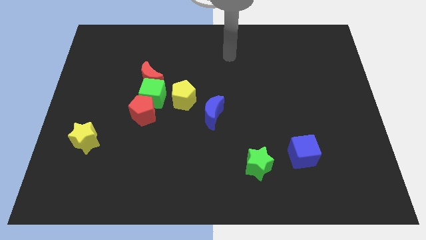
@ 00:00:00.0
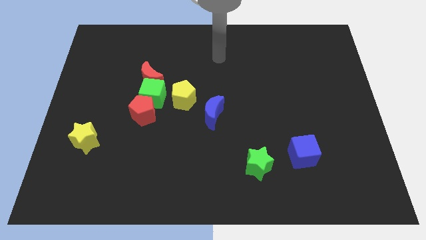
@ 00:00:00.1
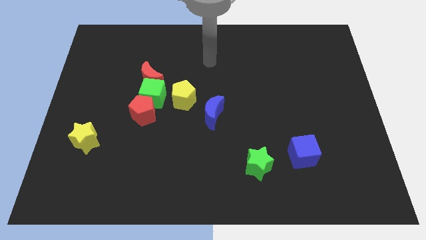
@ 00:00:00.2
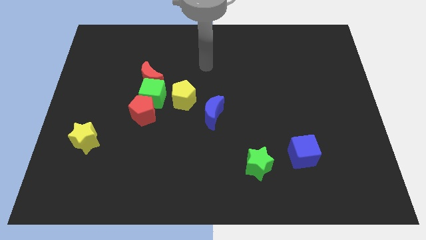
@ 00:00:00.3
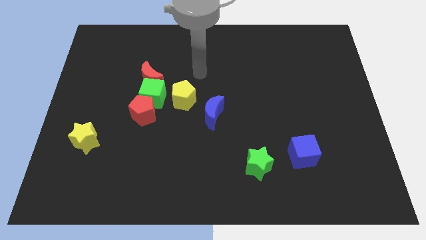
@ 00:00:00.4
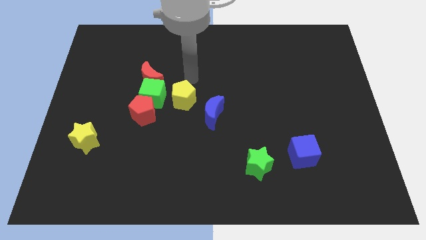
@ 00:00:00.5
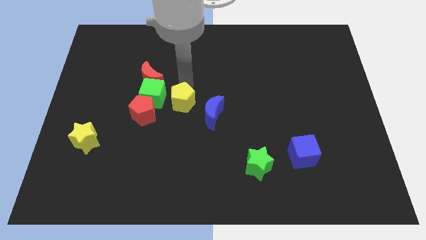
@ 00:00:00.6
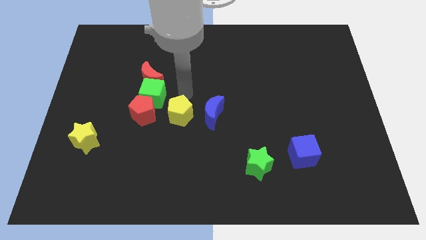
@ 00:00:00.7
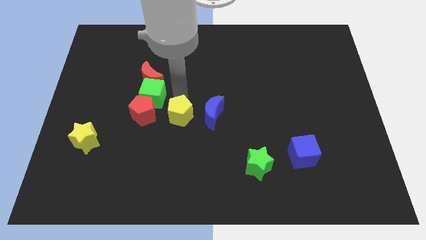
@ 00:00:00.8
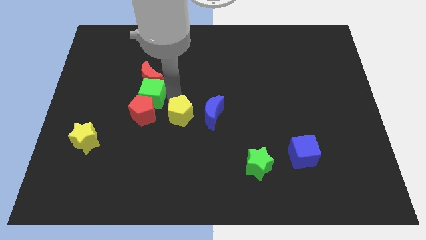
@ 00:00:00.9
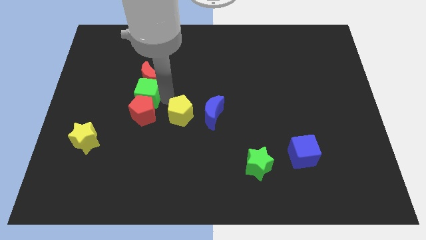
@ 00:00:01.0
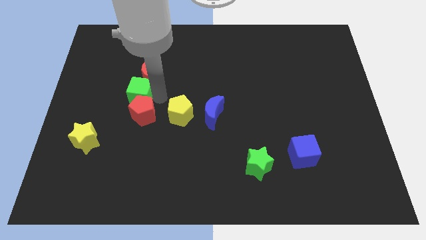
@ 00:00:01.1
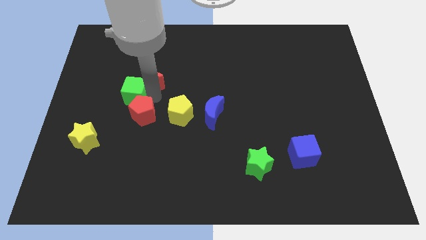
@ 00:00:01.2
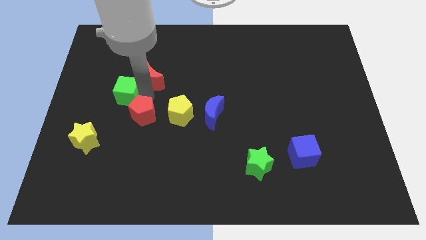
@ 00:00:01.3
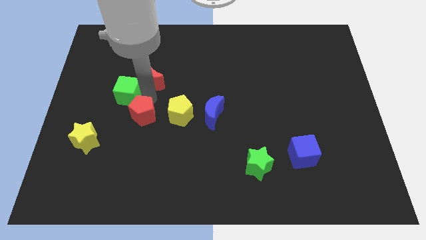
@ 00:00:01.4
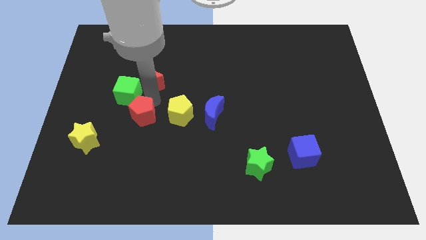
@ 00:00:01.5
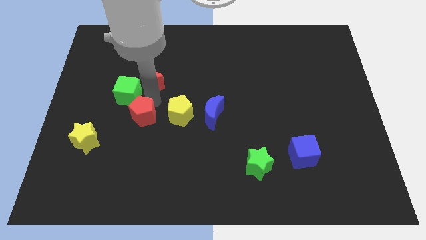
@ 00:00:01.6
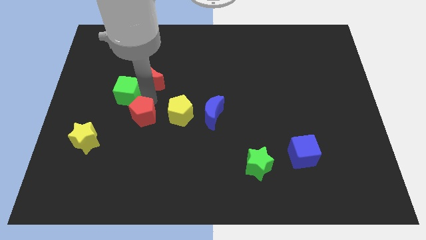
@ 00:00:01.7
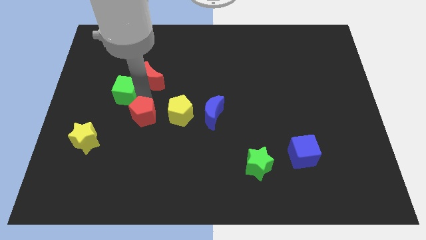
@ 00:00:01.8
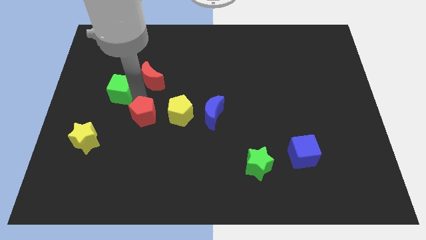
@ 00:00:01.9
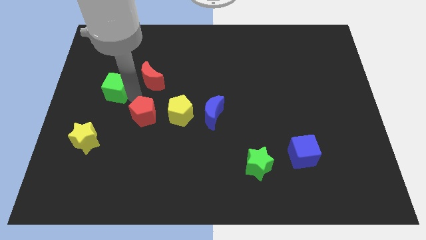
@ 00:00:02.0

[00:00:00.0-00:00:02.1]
move the green cube away from the group of blocks

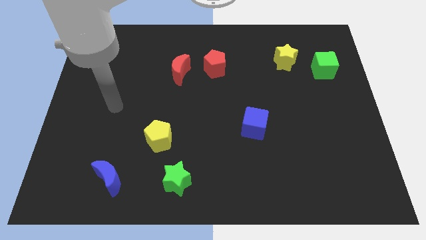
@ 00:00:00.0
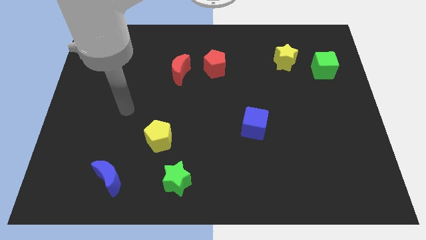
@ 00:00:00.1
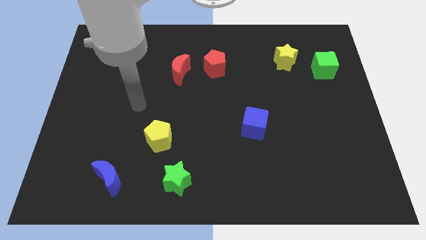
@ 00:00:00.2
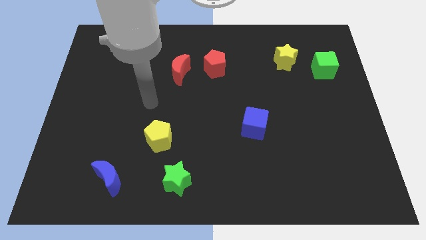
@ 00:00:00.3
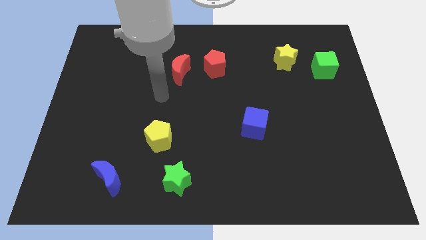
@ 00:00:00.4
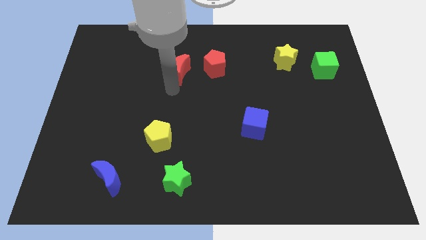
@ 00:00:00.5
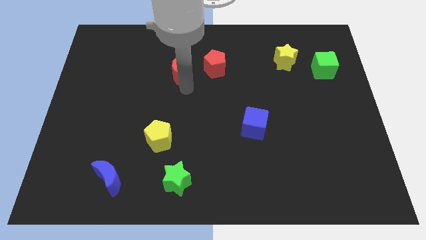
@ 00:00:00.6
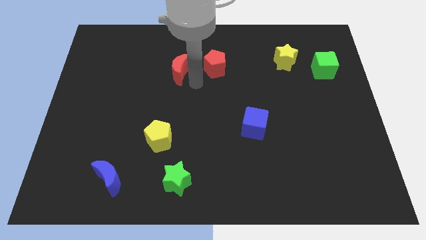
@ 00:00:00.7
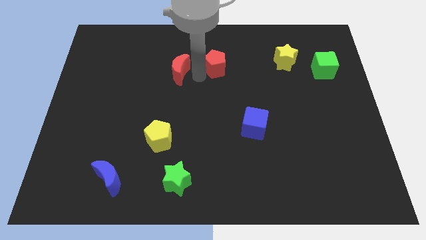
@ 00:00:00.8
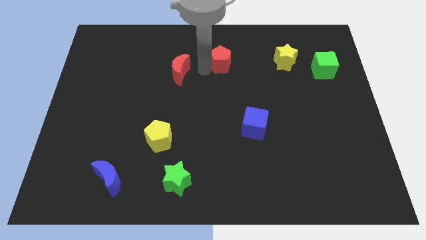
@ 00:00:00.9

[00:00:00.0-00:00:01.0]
move the red moon away from the red pentagon

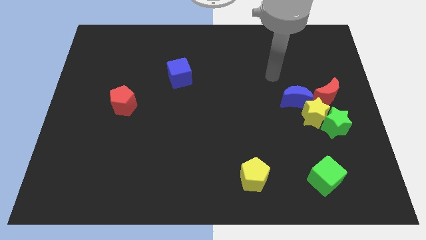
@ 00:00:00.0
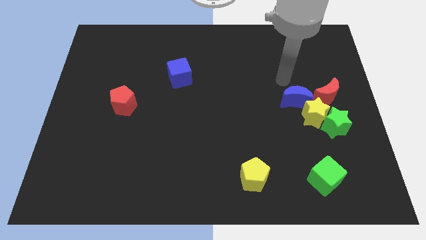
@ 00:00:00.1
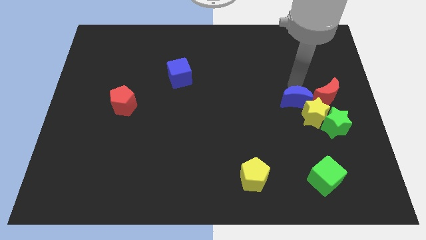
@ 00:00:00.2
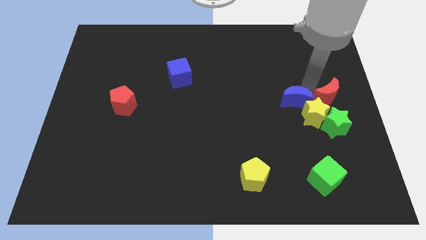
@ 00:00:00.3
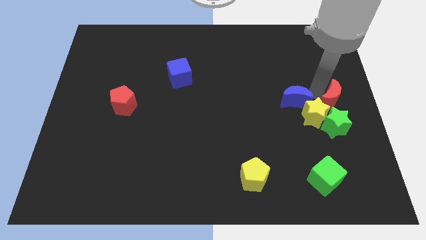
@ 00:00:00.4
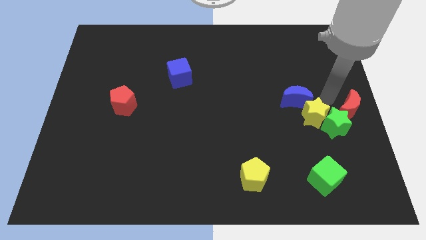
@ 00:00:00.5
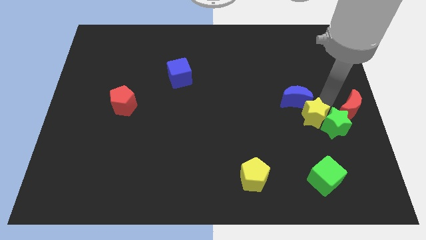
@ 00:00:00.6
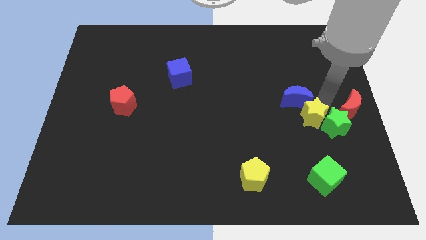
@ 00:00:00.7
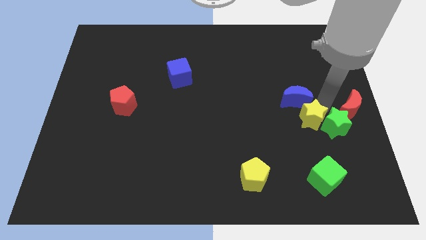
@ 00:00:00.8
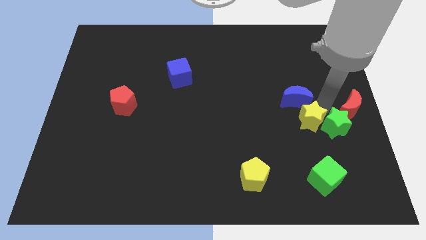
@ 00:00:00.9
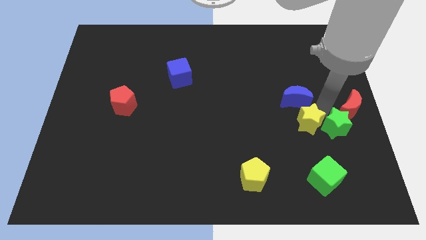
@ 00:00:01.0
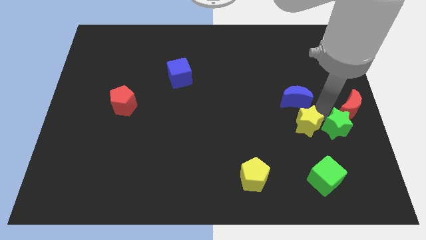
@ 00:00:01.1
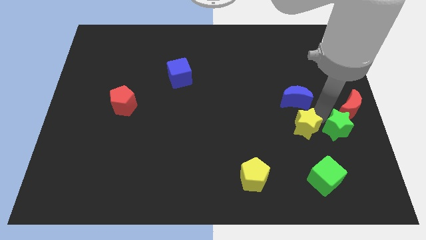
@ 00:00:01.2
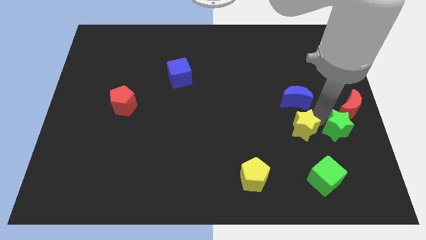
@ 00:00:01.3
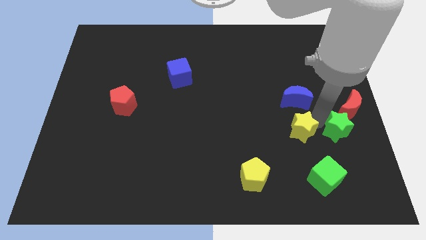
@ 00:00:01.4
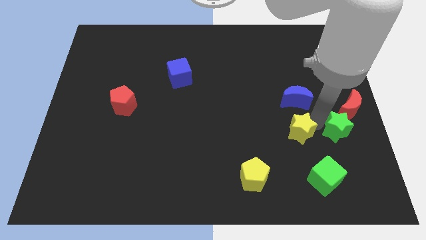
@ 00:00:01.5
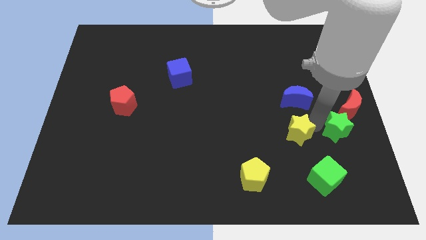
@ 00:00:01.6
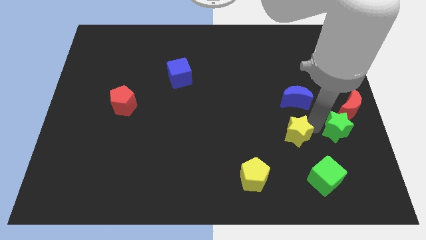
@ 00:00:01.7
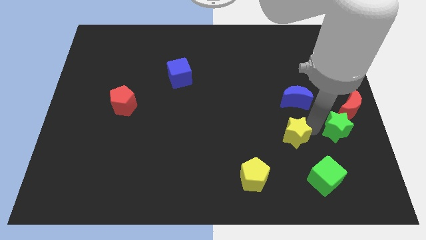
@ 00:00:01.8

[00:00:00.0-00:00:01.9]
move the yellow star away from the green star, blue moon, and red moon

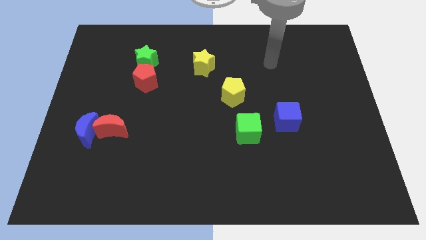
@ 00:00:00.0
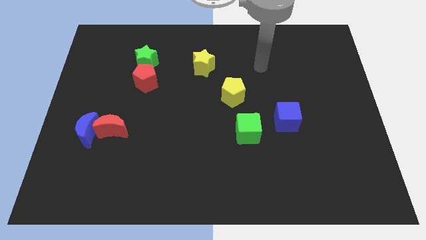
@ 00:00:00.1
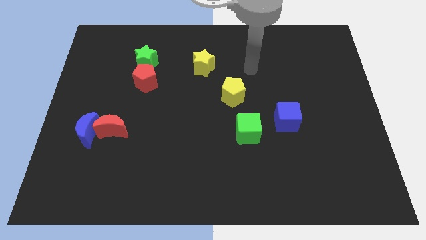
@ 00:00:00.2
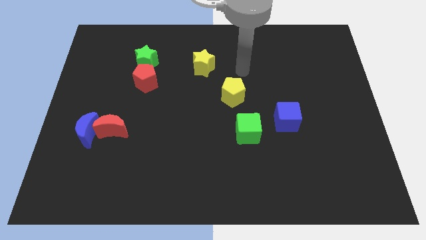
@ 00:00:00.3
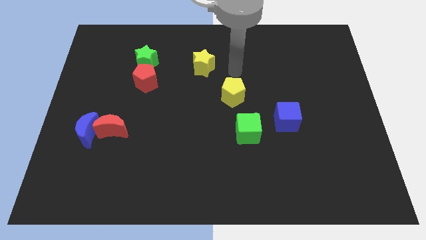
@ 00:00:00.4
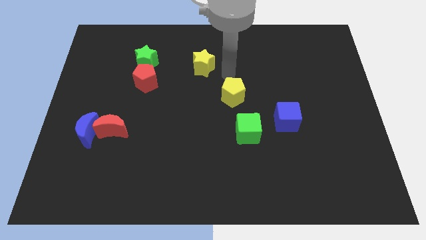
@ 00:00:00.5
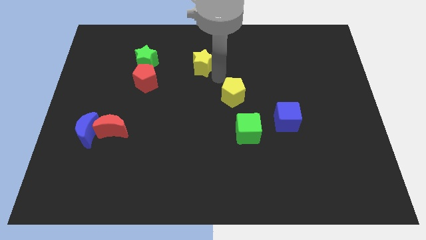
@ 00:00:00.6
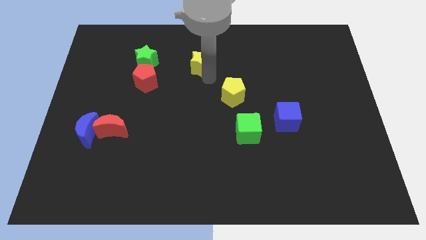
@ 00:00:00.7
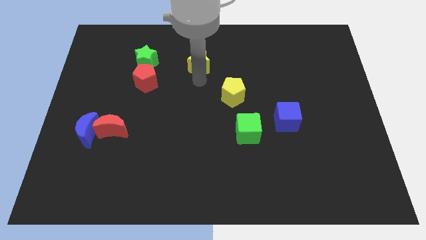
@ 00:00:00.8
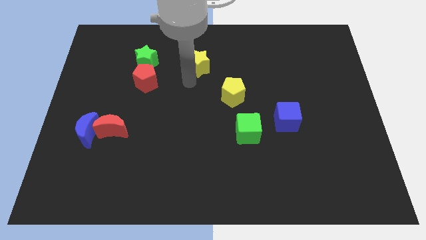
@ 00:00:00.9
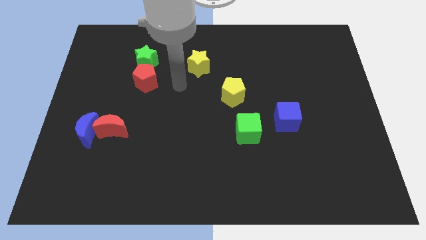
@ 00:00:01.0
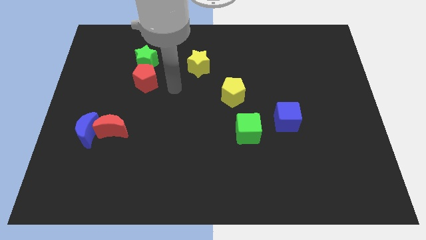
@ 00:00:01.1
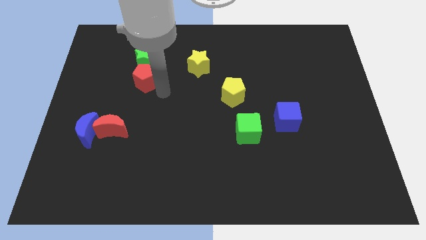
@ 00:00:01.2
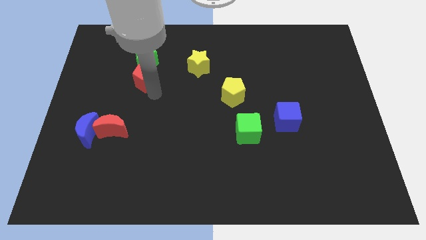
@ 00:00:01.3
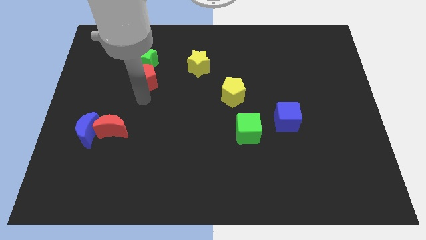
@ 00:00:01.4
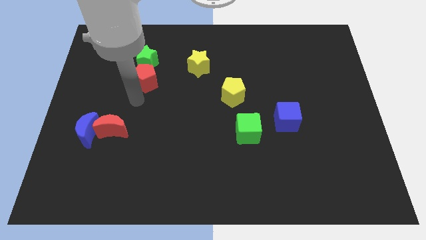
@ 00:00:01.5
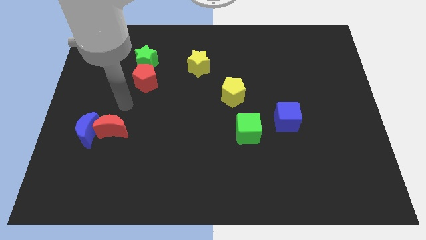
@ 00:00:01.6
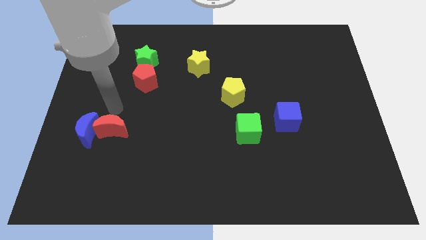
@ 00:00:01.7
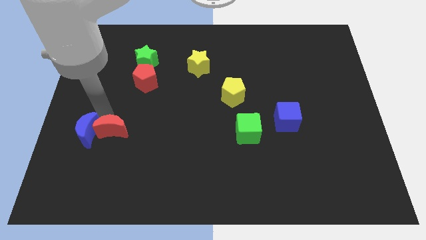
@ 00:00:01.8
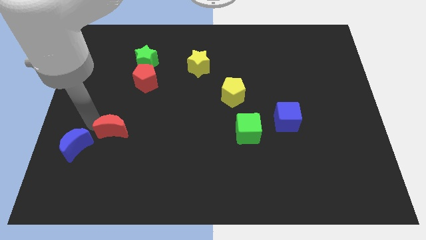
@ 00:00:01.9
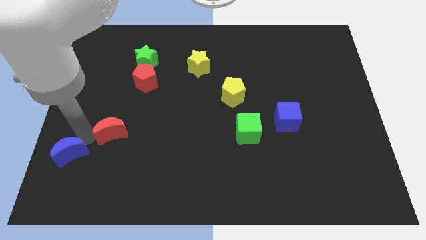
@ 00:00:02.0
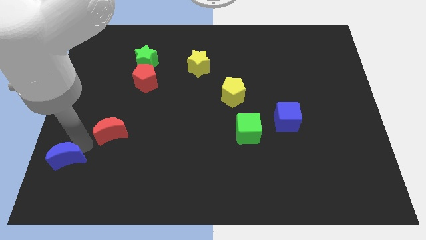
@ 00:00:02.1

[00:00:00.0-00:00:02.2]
pull the red moon apart from the blue moon

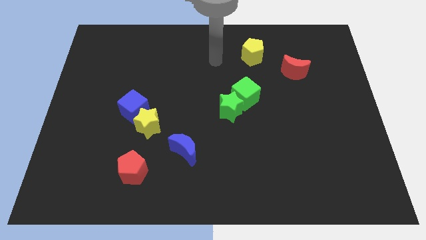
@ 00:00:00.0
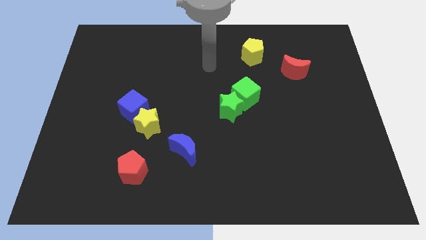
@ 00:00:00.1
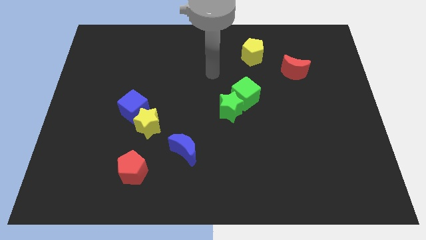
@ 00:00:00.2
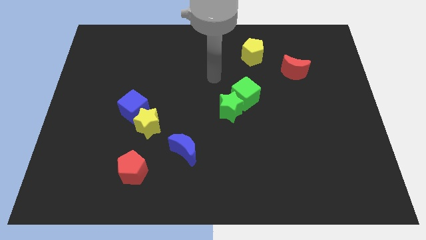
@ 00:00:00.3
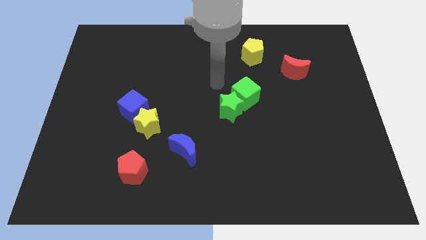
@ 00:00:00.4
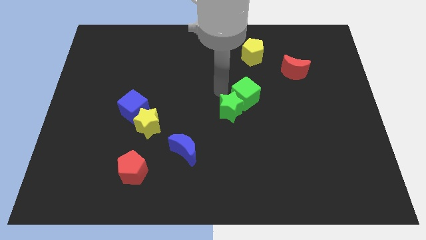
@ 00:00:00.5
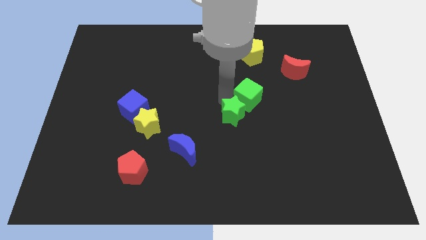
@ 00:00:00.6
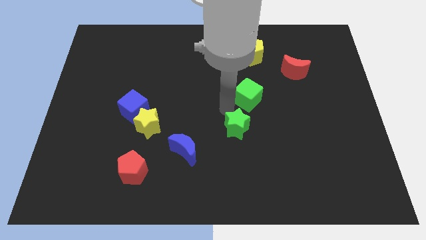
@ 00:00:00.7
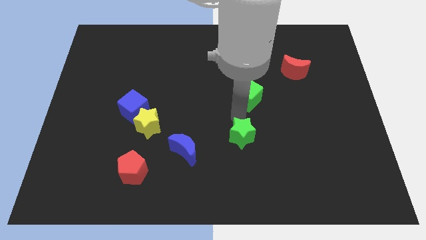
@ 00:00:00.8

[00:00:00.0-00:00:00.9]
move the green cube away from the green star

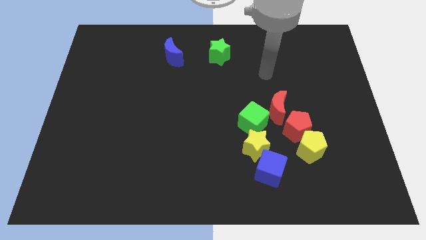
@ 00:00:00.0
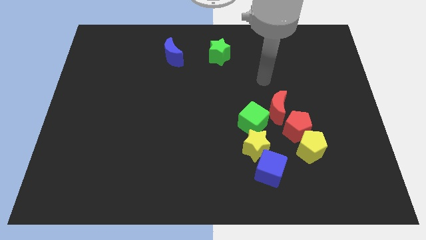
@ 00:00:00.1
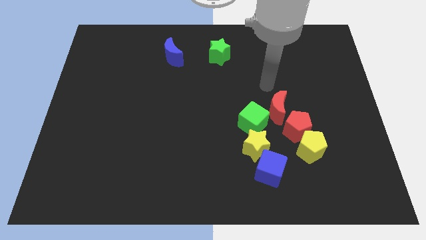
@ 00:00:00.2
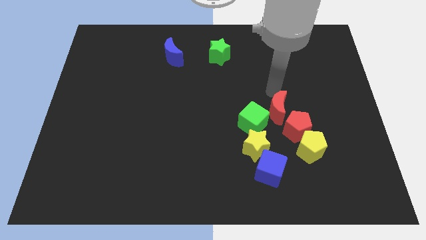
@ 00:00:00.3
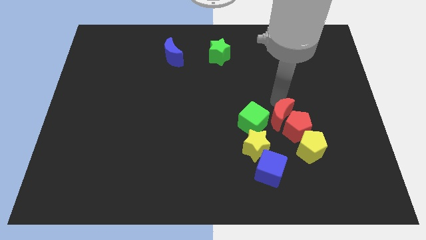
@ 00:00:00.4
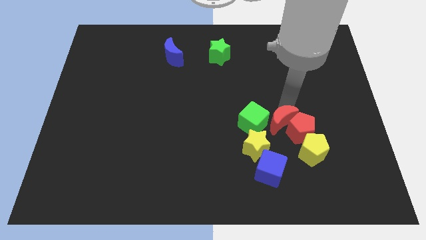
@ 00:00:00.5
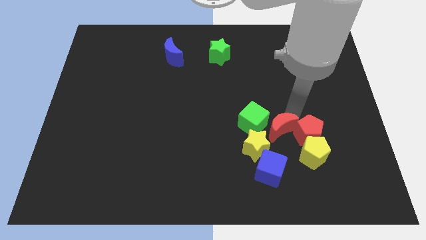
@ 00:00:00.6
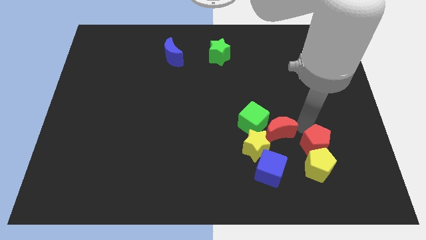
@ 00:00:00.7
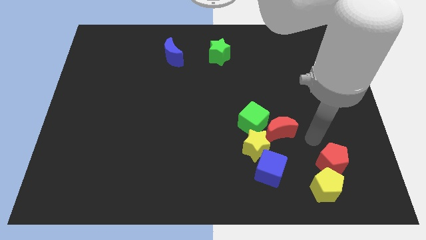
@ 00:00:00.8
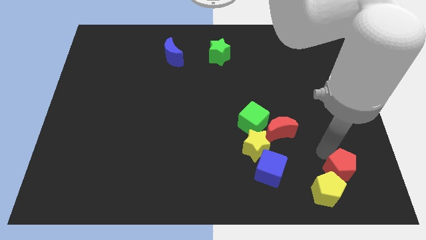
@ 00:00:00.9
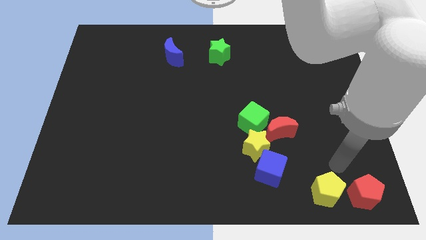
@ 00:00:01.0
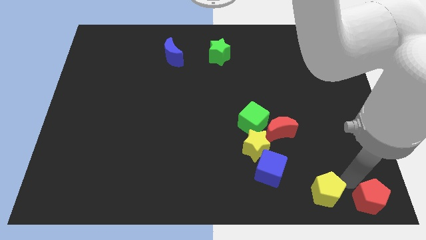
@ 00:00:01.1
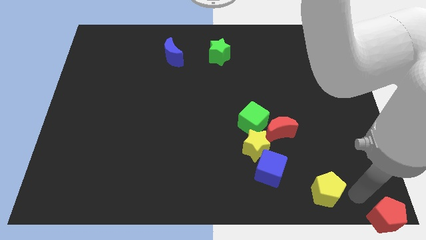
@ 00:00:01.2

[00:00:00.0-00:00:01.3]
move the yellow pentagon away from the red pentagon
